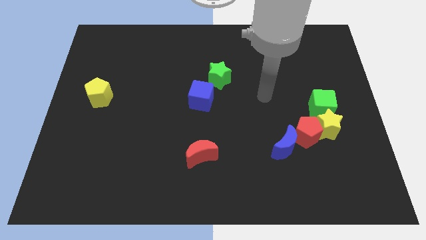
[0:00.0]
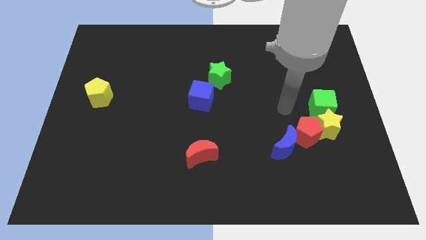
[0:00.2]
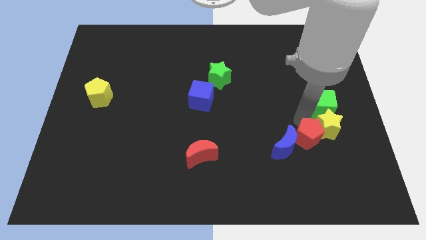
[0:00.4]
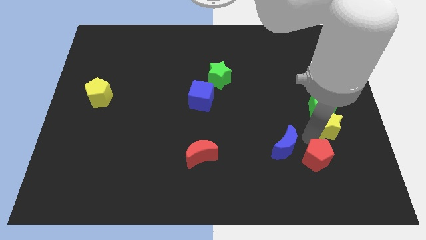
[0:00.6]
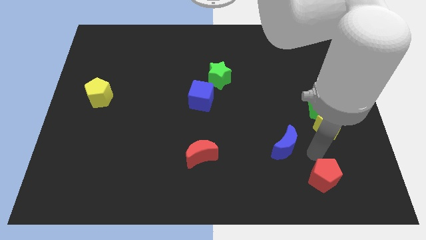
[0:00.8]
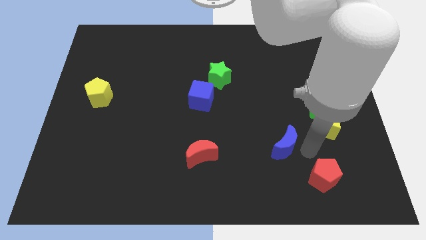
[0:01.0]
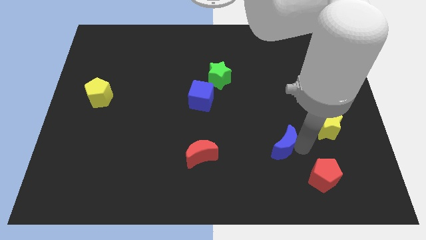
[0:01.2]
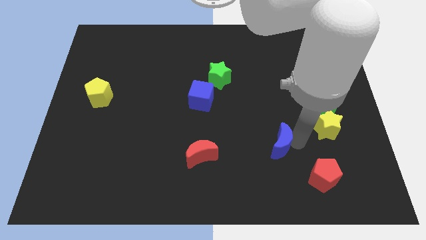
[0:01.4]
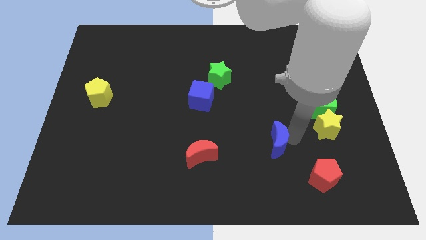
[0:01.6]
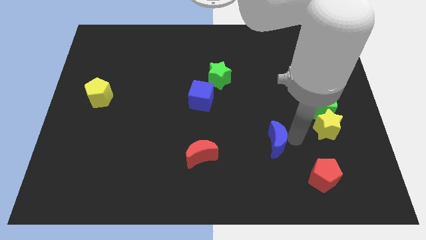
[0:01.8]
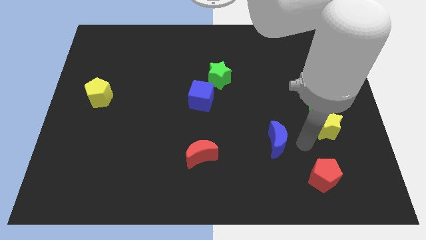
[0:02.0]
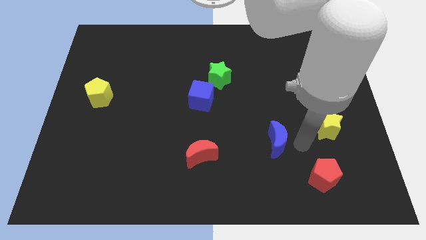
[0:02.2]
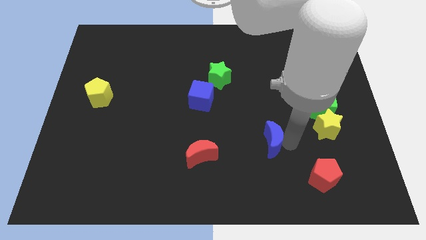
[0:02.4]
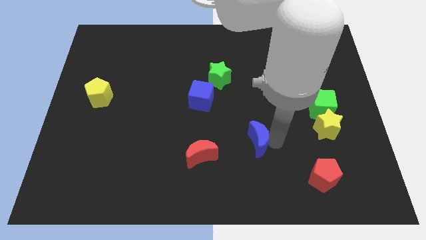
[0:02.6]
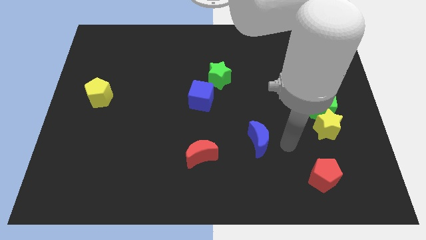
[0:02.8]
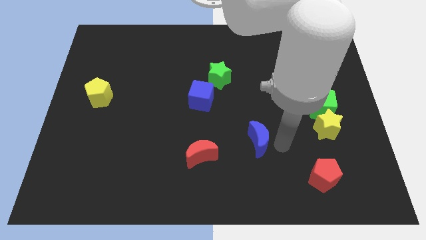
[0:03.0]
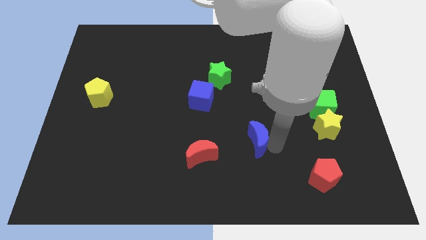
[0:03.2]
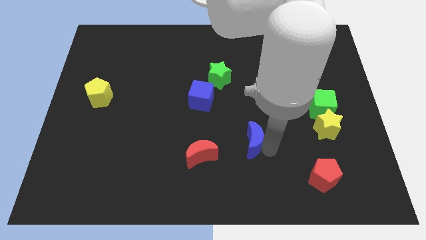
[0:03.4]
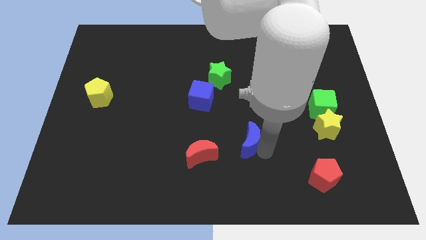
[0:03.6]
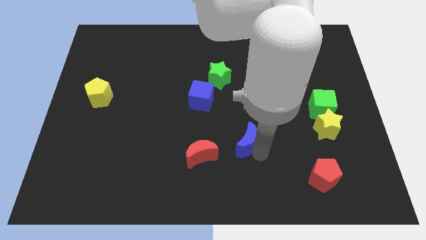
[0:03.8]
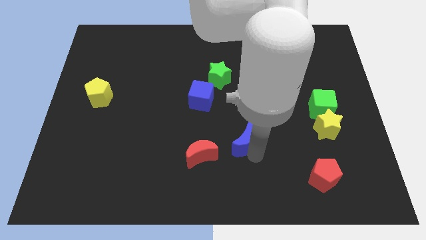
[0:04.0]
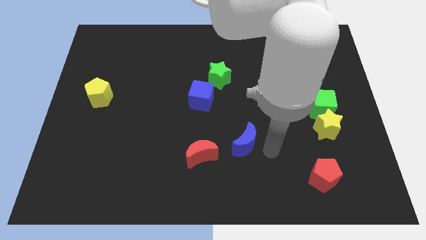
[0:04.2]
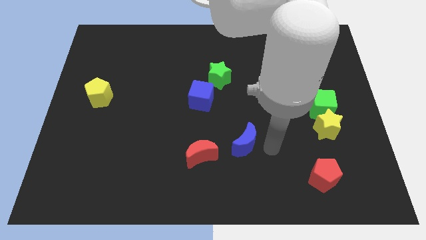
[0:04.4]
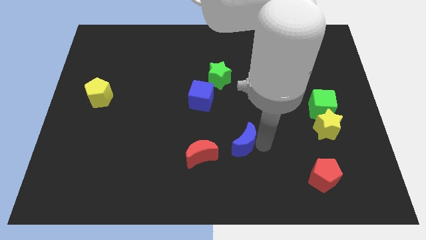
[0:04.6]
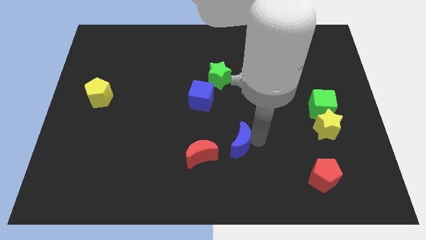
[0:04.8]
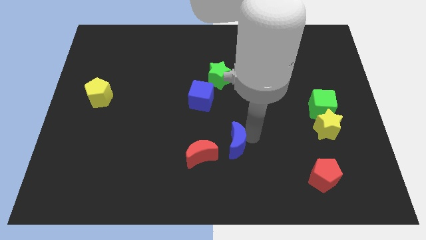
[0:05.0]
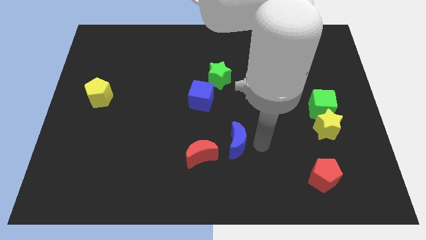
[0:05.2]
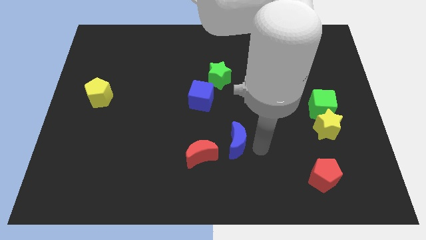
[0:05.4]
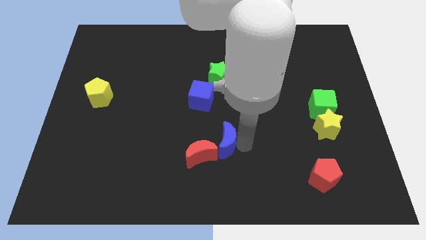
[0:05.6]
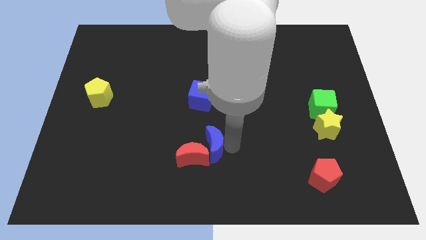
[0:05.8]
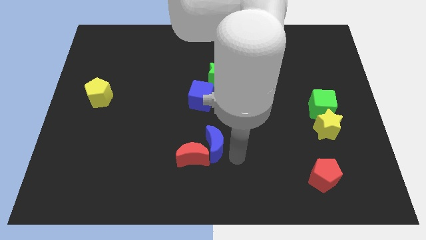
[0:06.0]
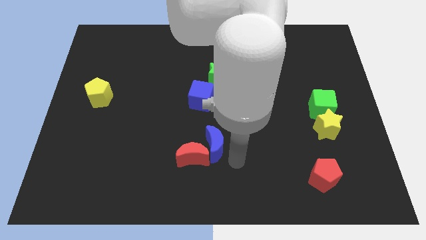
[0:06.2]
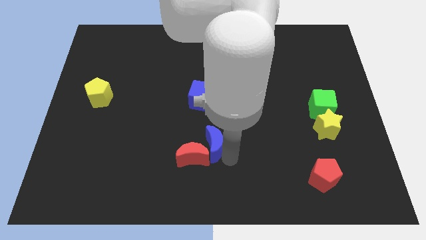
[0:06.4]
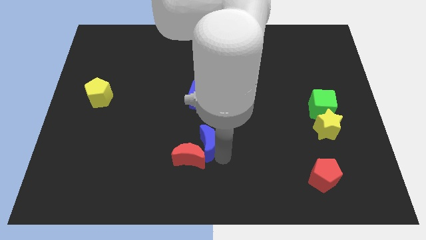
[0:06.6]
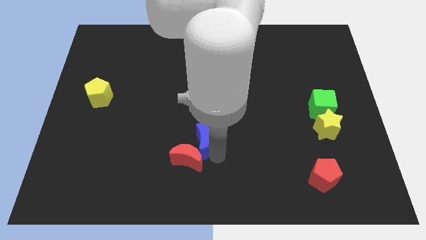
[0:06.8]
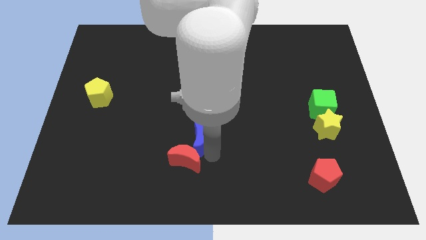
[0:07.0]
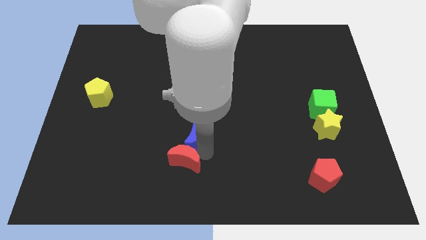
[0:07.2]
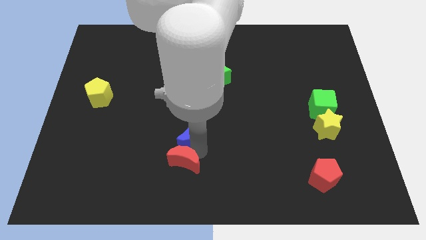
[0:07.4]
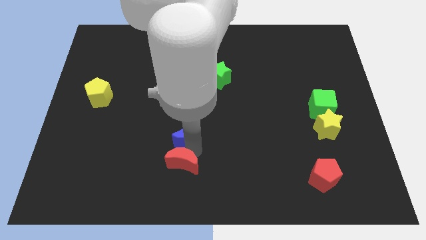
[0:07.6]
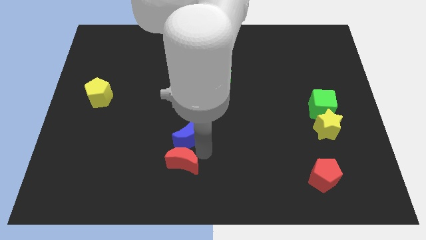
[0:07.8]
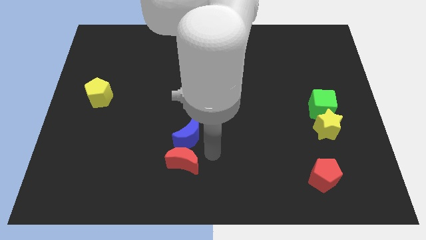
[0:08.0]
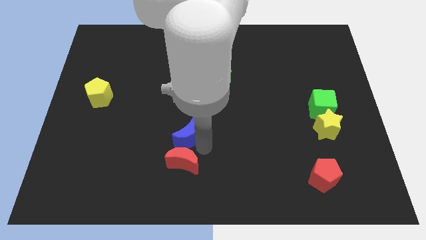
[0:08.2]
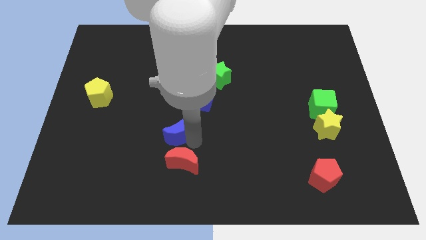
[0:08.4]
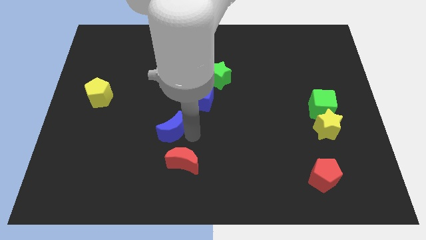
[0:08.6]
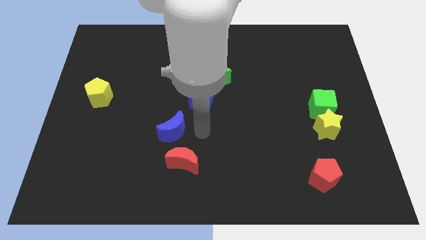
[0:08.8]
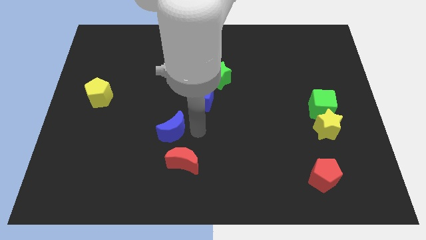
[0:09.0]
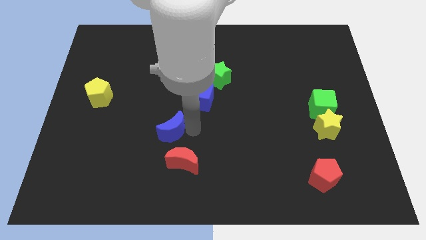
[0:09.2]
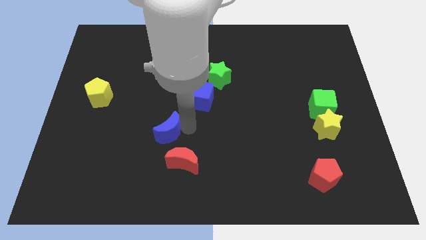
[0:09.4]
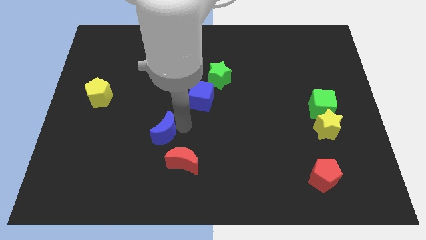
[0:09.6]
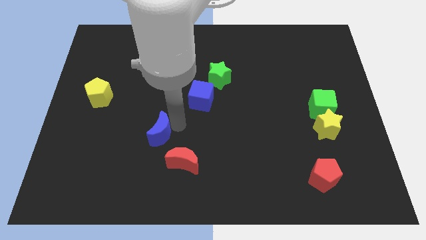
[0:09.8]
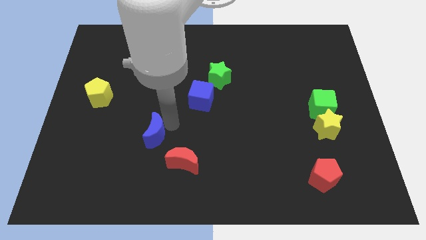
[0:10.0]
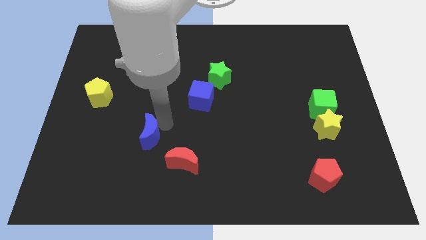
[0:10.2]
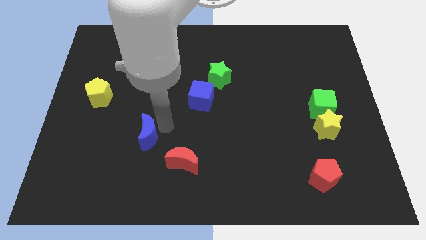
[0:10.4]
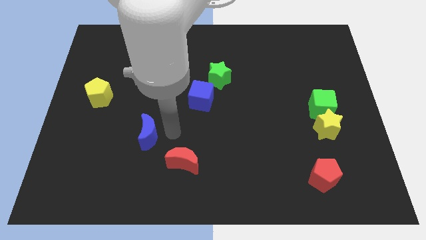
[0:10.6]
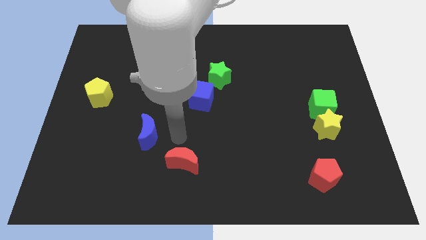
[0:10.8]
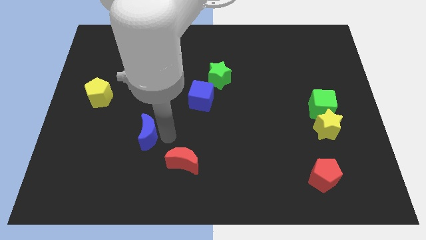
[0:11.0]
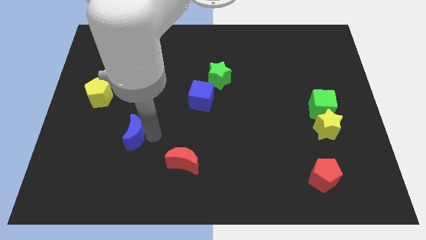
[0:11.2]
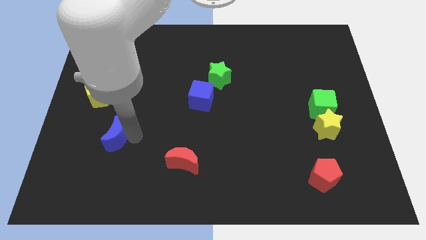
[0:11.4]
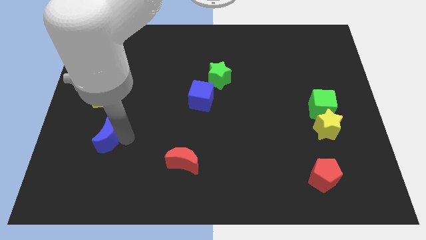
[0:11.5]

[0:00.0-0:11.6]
move the blue moon to the bottom side of the yellow pentagon

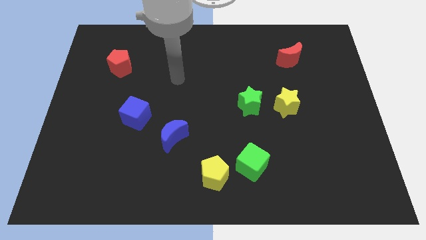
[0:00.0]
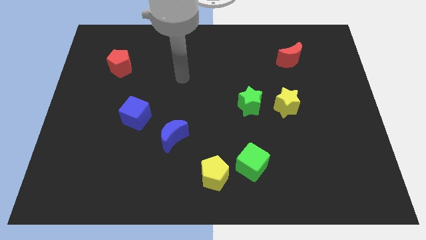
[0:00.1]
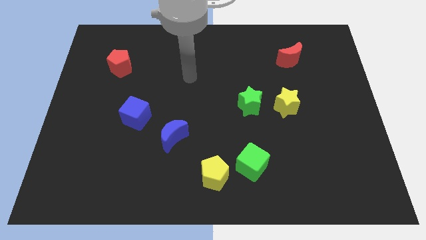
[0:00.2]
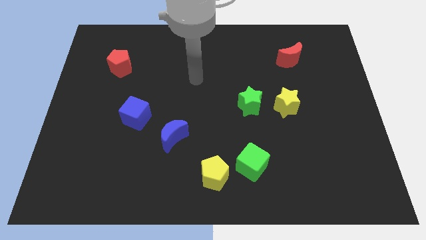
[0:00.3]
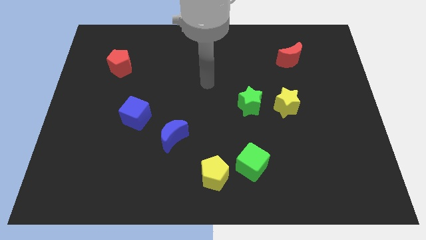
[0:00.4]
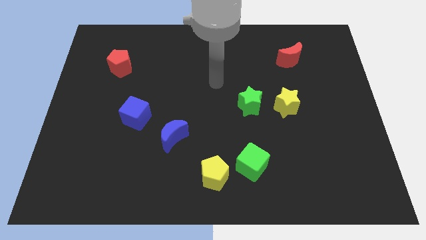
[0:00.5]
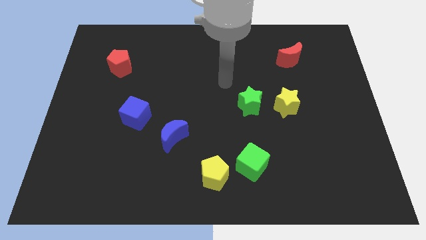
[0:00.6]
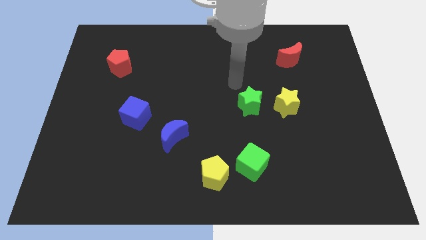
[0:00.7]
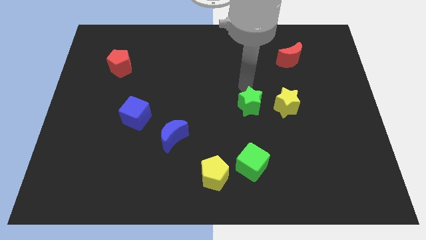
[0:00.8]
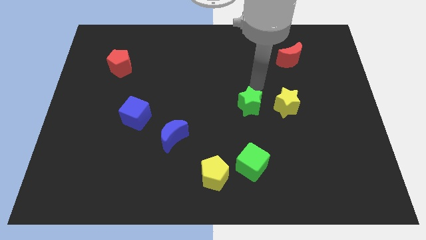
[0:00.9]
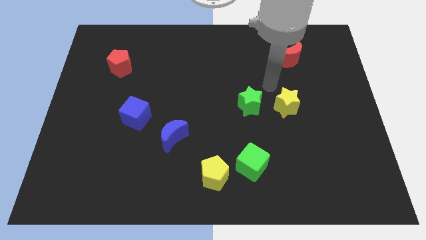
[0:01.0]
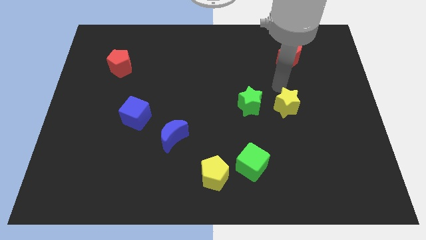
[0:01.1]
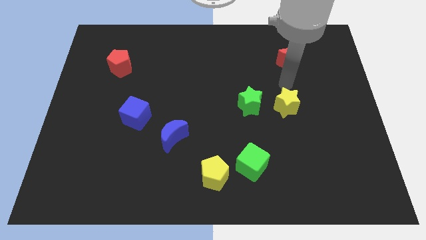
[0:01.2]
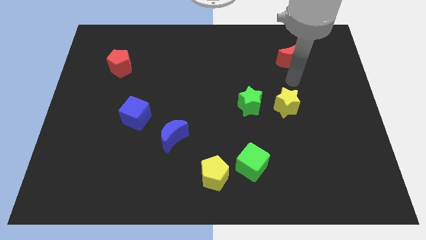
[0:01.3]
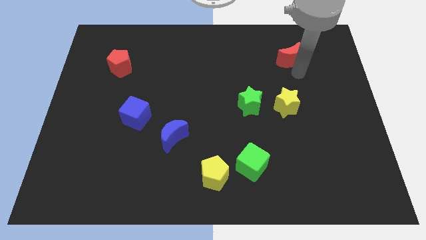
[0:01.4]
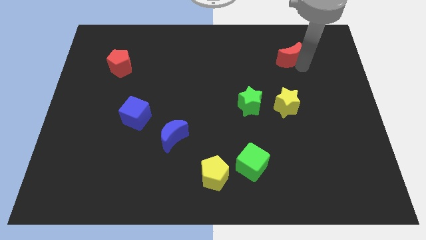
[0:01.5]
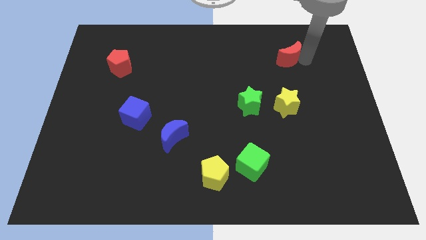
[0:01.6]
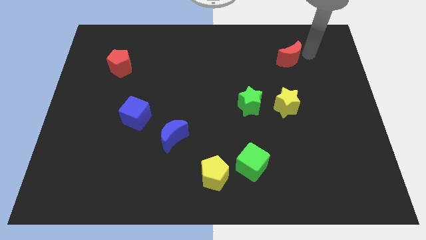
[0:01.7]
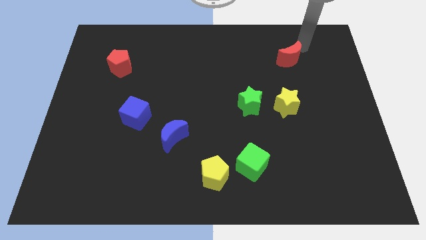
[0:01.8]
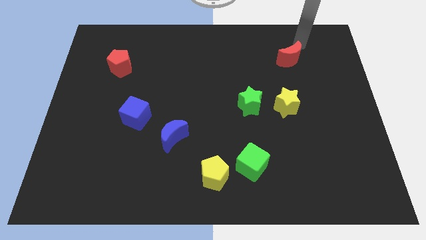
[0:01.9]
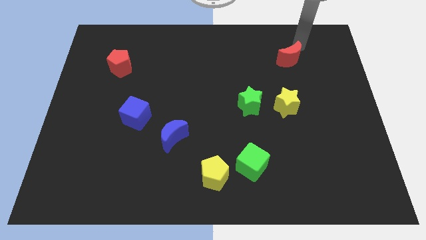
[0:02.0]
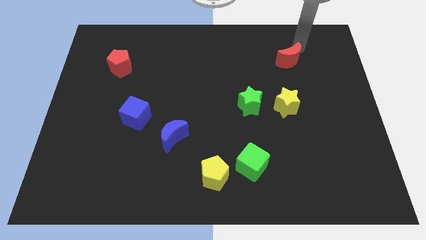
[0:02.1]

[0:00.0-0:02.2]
move the red moon to the top of the yellow star
